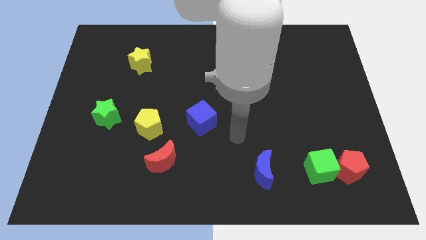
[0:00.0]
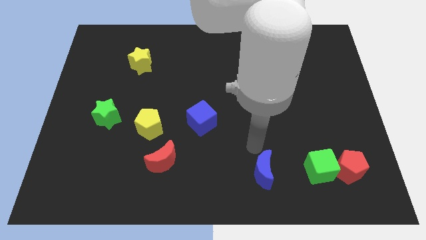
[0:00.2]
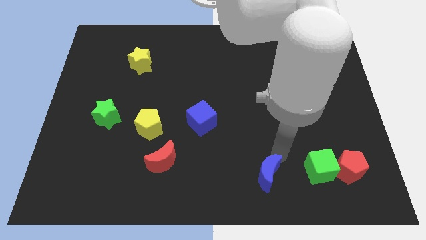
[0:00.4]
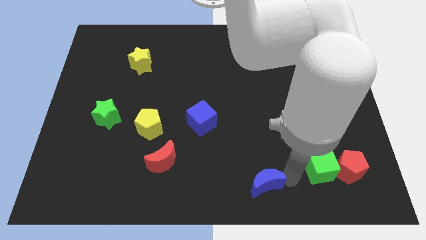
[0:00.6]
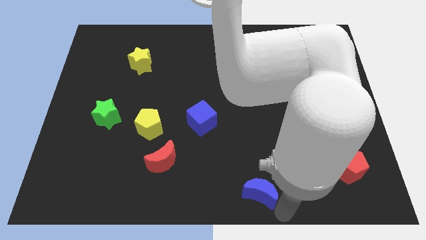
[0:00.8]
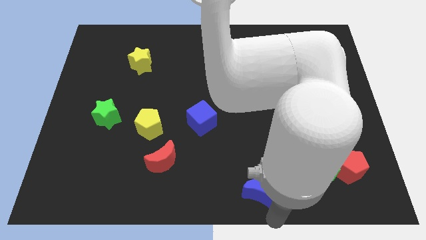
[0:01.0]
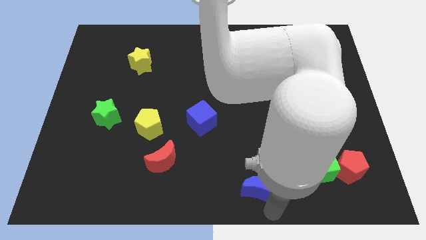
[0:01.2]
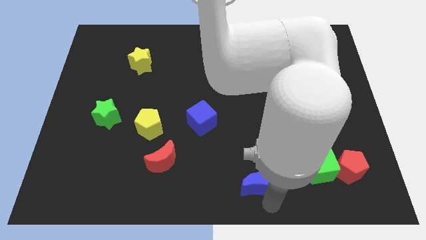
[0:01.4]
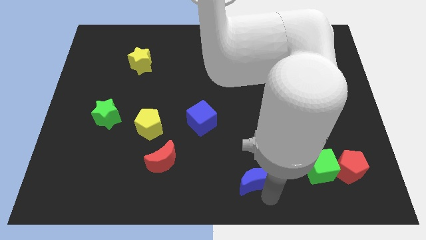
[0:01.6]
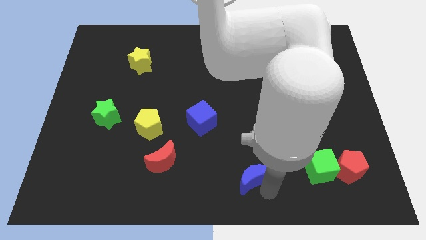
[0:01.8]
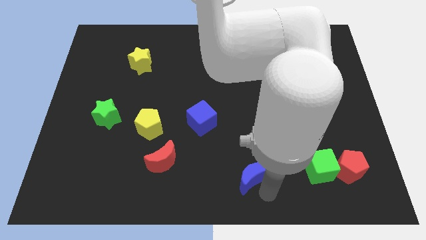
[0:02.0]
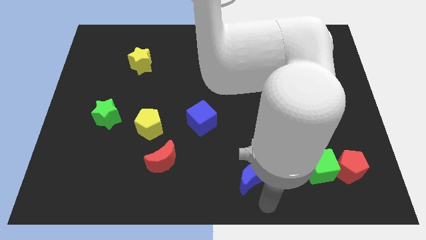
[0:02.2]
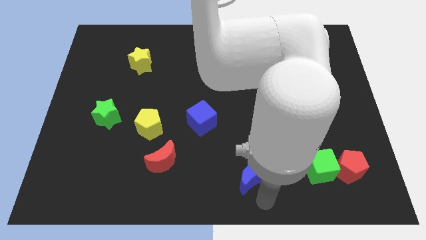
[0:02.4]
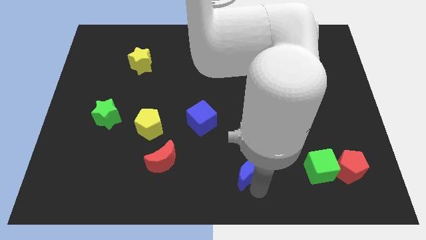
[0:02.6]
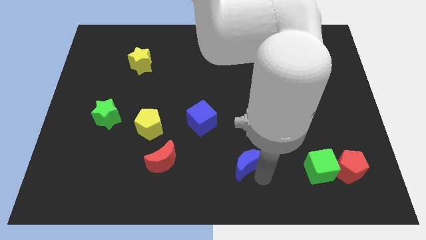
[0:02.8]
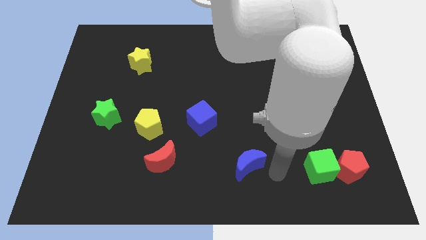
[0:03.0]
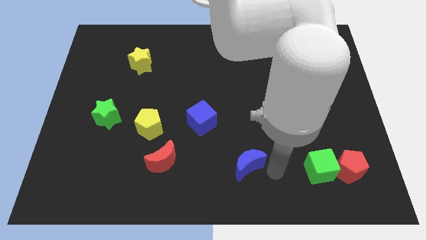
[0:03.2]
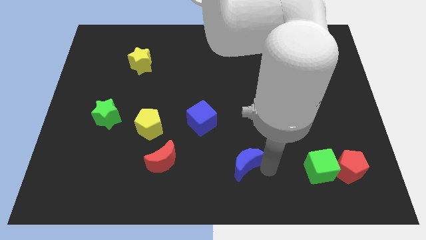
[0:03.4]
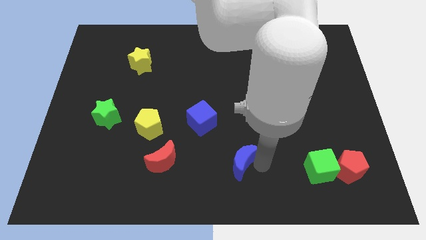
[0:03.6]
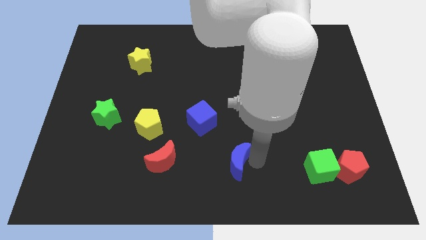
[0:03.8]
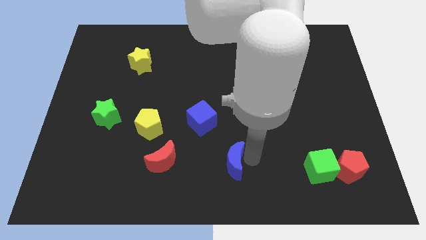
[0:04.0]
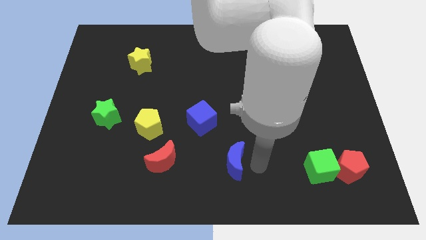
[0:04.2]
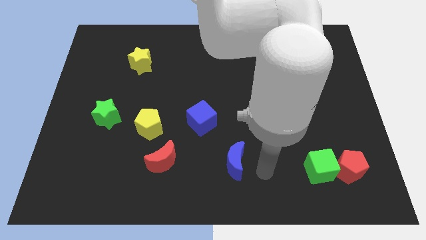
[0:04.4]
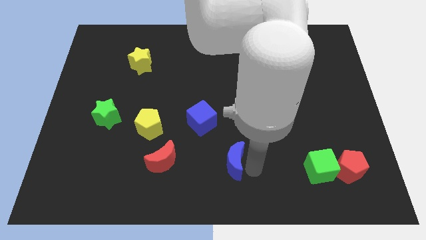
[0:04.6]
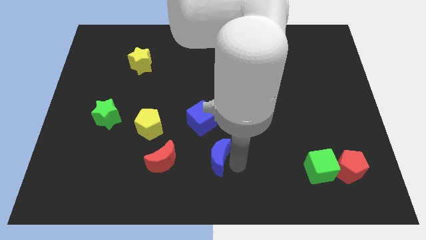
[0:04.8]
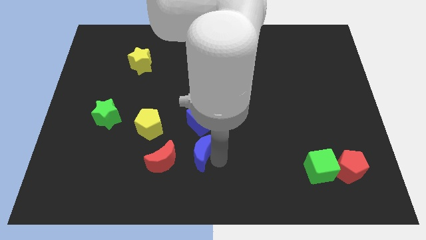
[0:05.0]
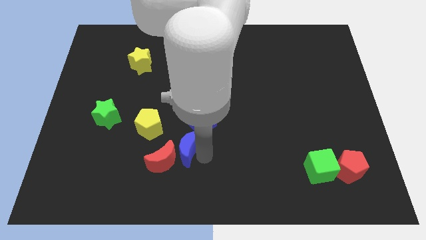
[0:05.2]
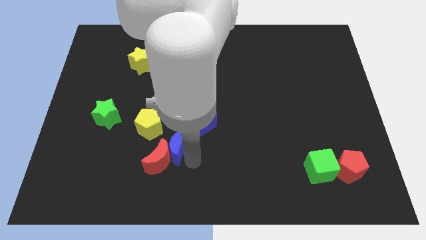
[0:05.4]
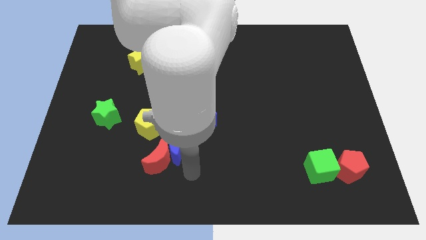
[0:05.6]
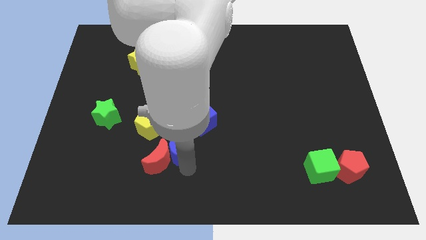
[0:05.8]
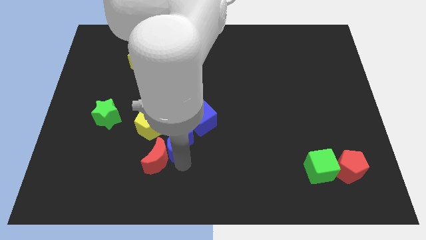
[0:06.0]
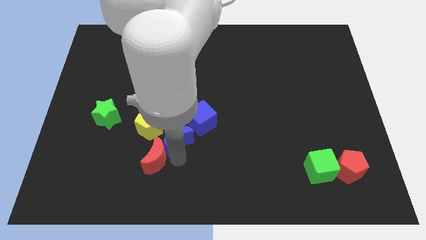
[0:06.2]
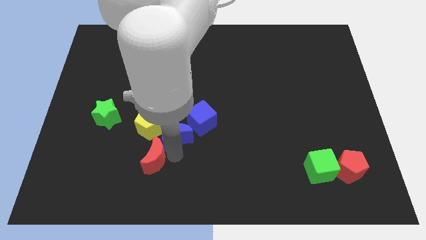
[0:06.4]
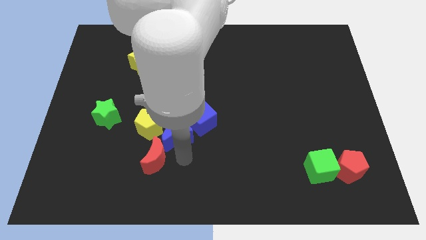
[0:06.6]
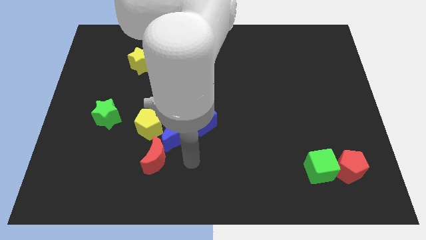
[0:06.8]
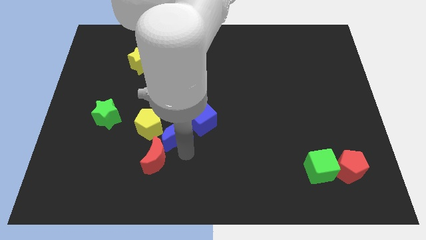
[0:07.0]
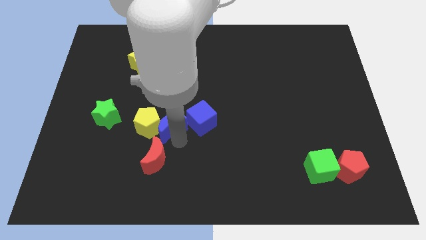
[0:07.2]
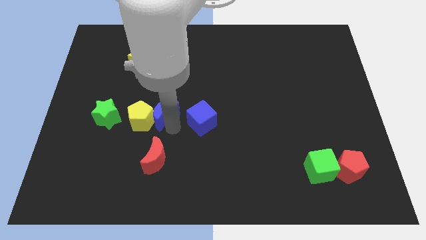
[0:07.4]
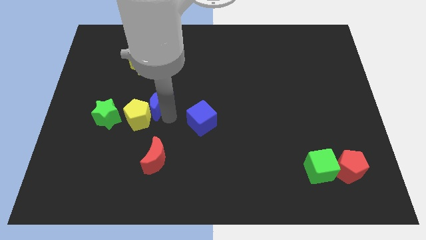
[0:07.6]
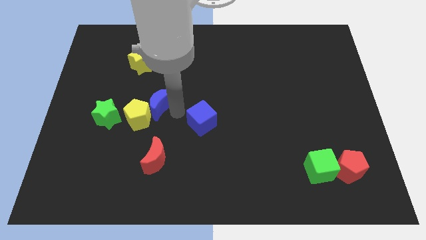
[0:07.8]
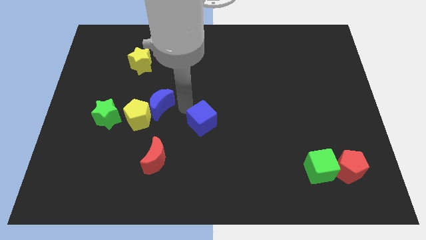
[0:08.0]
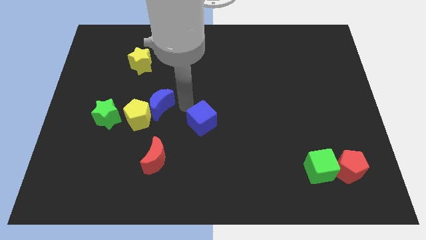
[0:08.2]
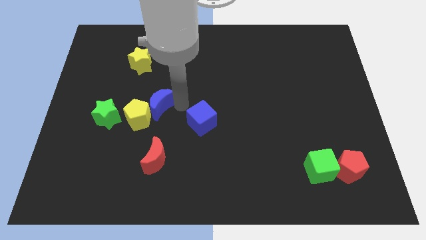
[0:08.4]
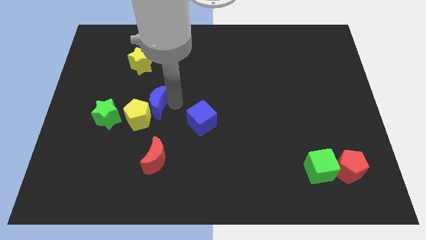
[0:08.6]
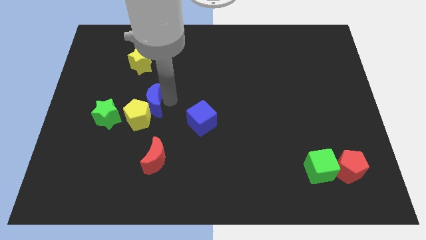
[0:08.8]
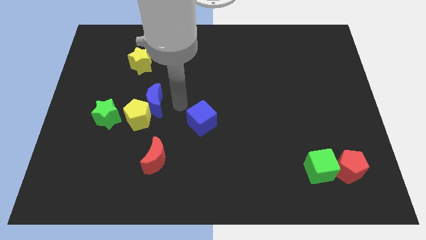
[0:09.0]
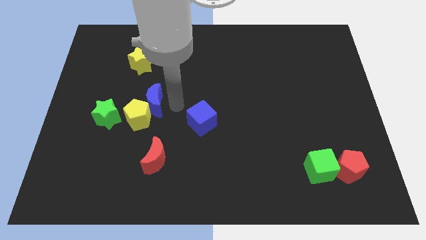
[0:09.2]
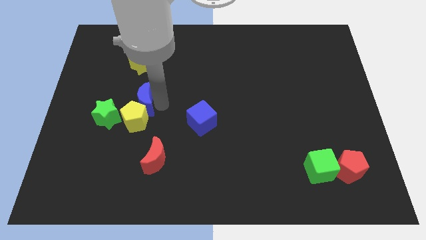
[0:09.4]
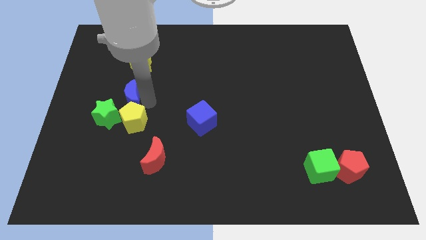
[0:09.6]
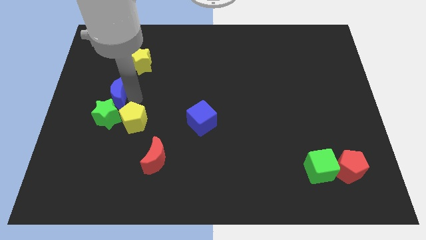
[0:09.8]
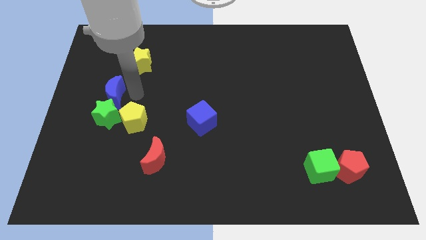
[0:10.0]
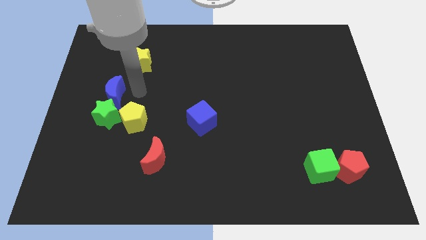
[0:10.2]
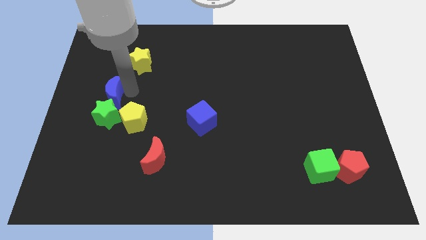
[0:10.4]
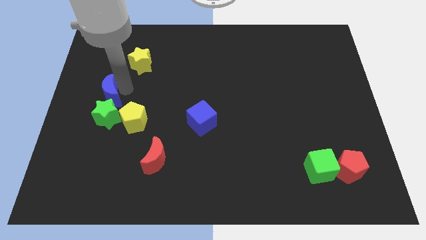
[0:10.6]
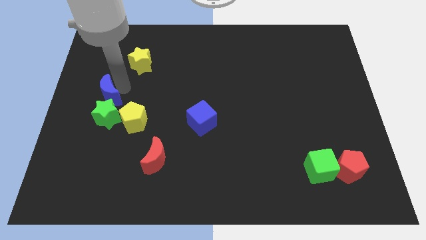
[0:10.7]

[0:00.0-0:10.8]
slide the blue moon to the left side

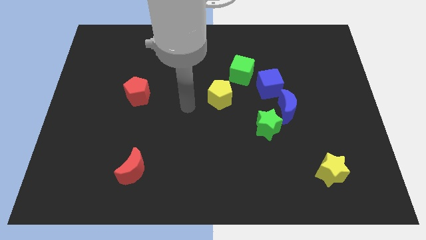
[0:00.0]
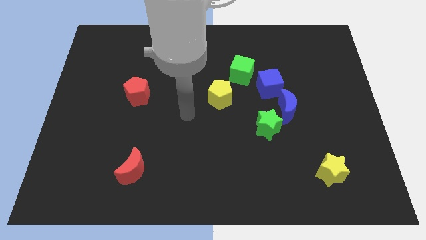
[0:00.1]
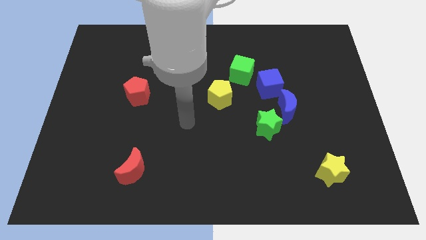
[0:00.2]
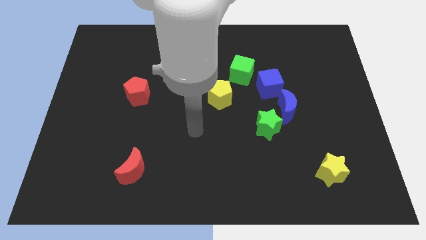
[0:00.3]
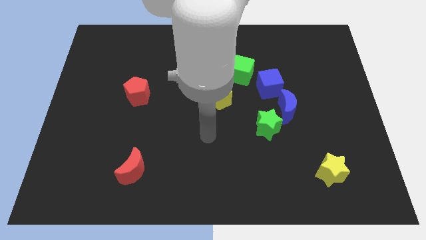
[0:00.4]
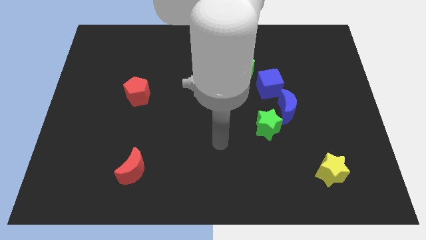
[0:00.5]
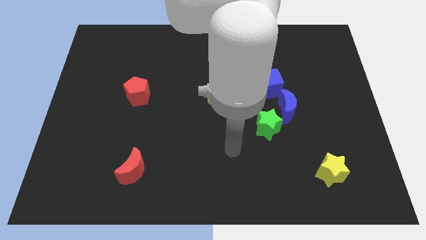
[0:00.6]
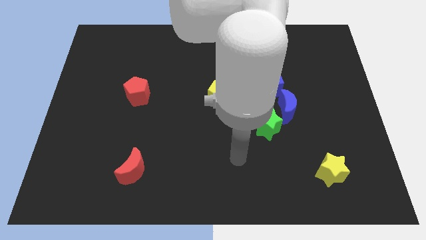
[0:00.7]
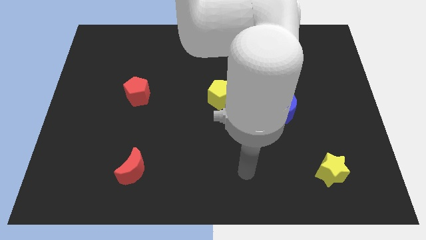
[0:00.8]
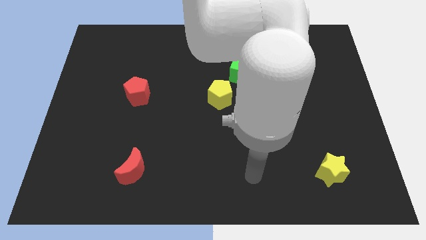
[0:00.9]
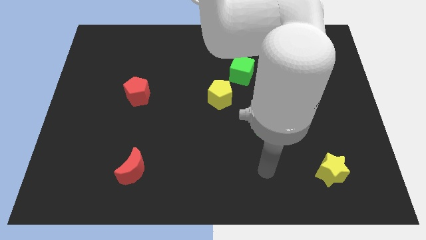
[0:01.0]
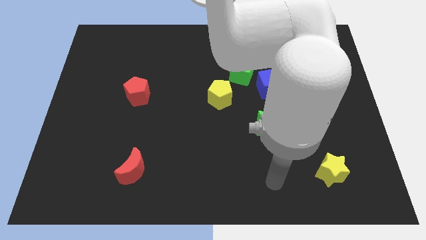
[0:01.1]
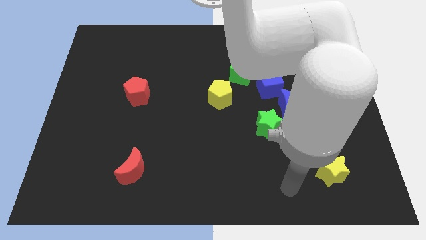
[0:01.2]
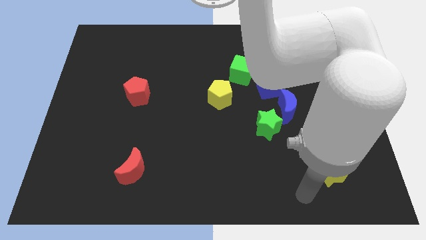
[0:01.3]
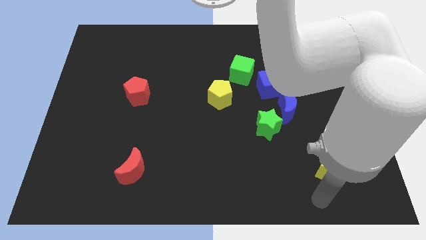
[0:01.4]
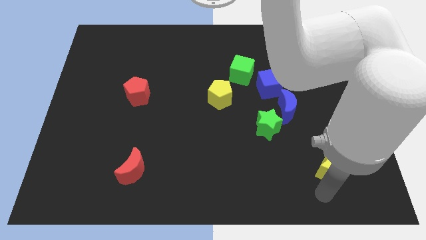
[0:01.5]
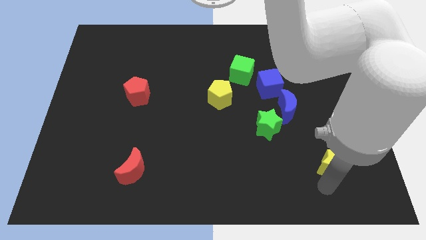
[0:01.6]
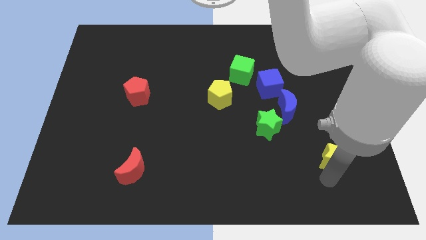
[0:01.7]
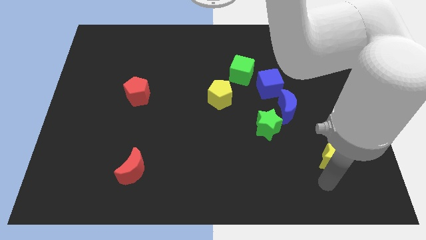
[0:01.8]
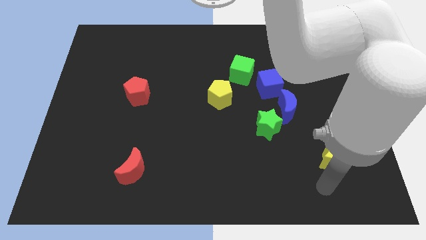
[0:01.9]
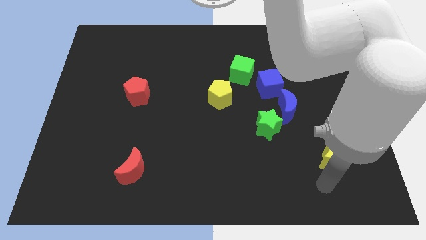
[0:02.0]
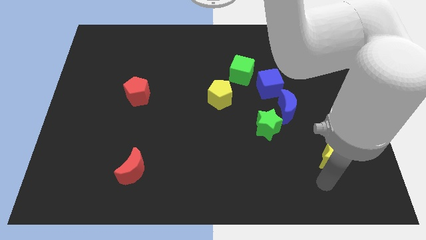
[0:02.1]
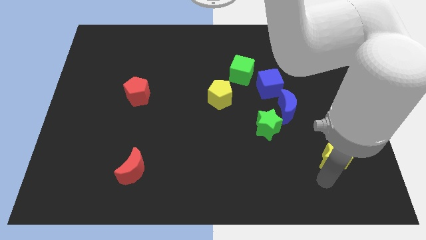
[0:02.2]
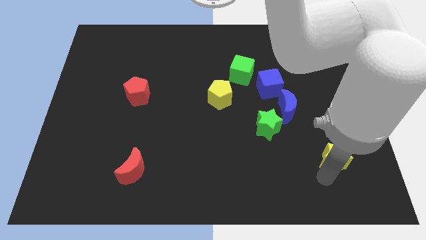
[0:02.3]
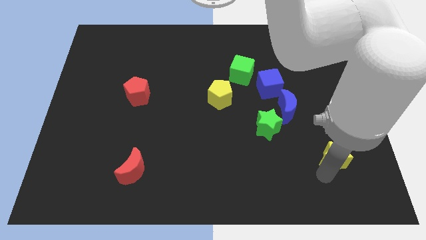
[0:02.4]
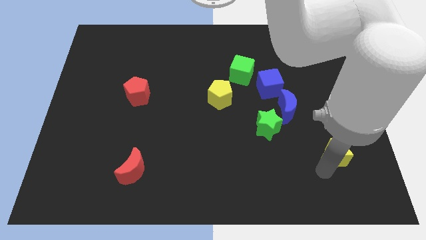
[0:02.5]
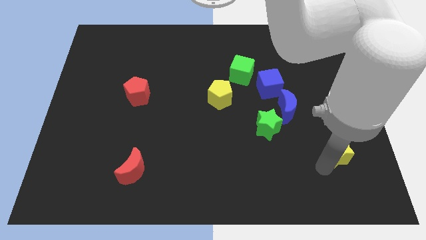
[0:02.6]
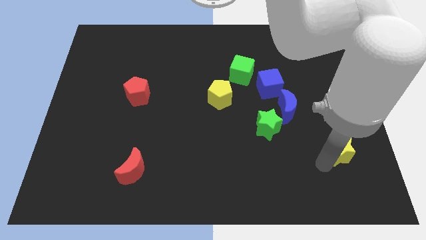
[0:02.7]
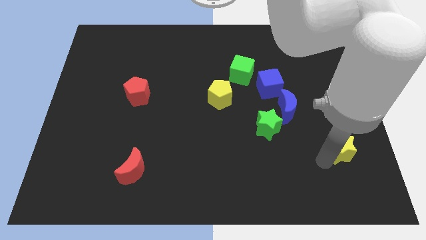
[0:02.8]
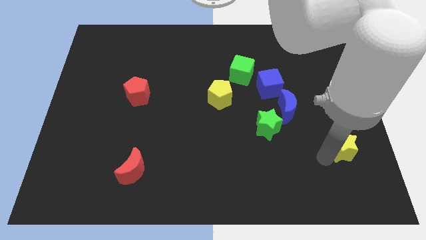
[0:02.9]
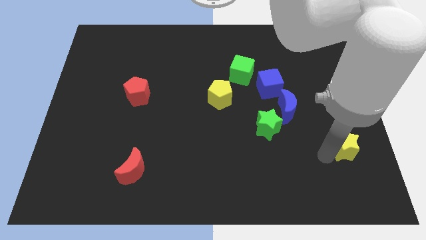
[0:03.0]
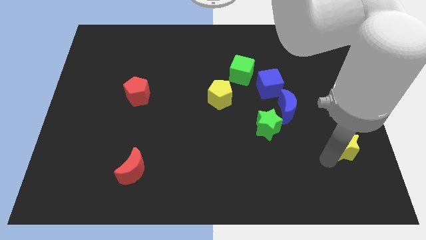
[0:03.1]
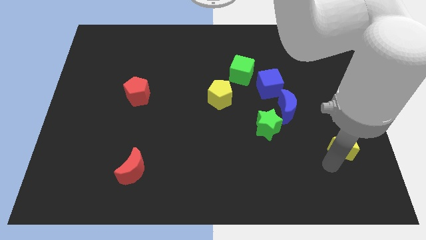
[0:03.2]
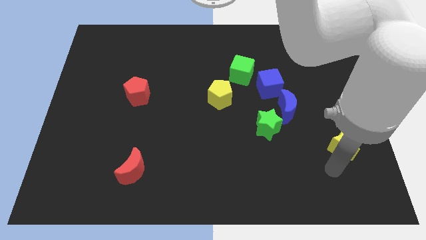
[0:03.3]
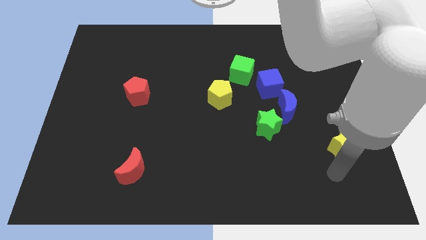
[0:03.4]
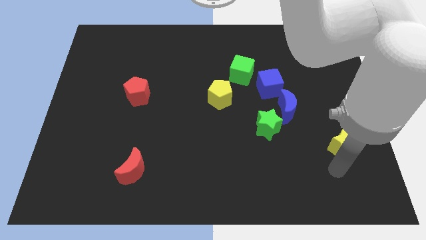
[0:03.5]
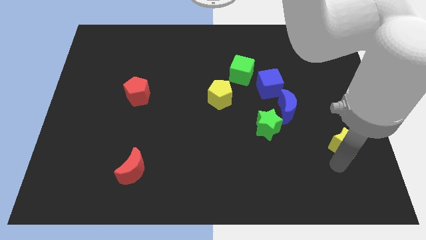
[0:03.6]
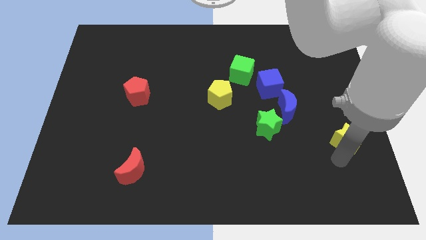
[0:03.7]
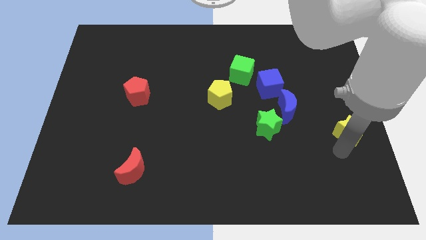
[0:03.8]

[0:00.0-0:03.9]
put the yellow star to the right side
